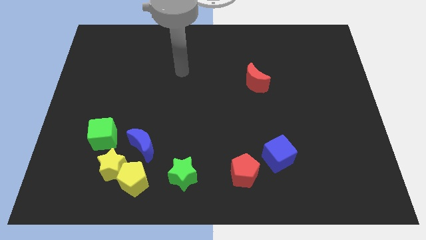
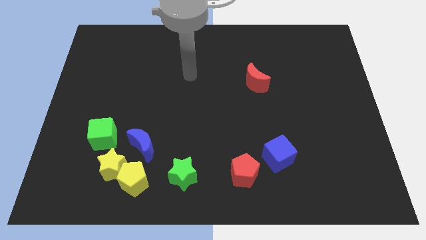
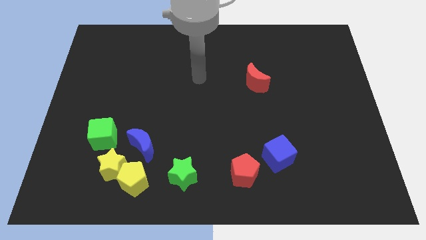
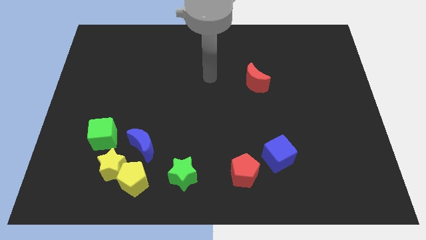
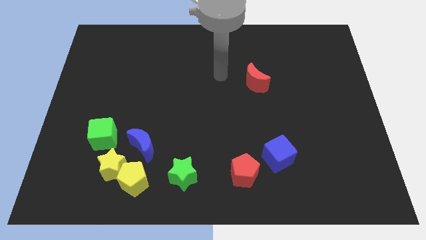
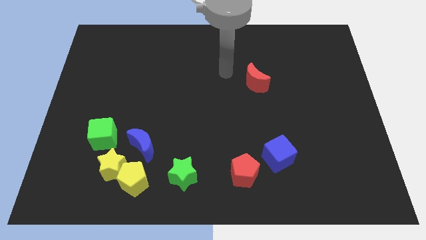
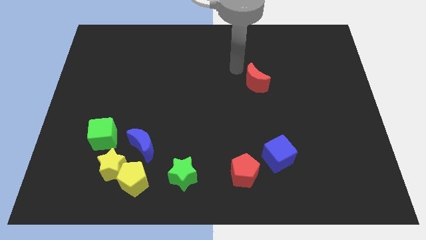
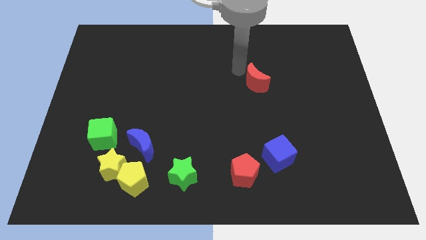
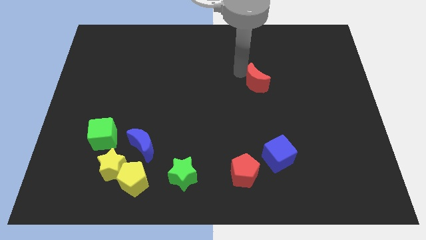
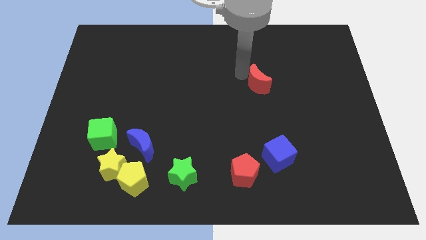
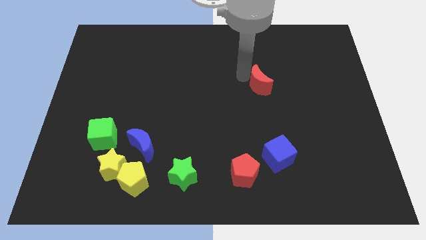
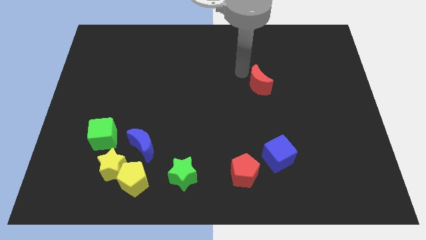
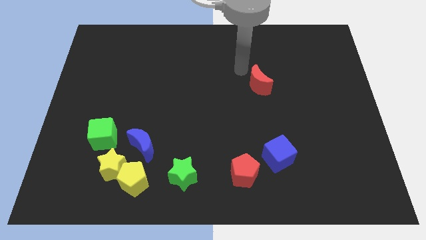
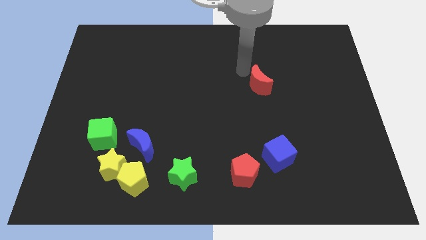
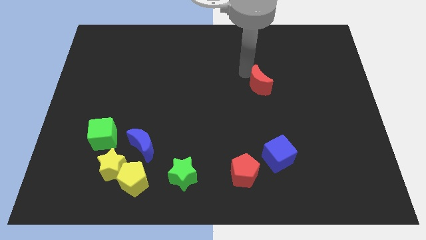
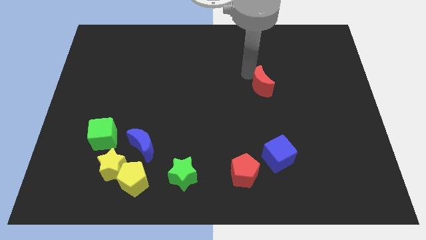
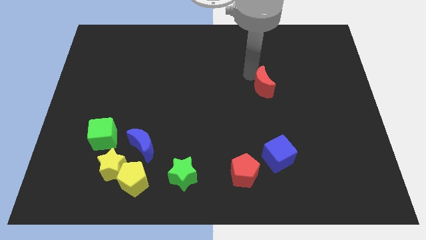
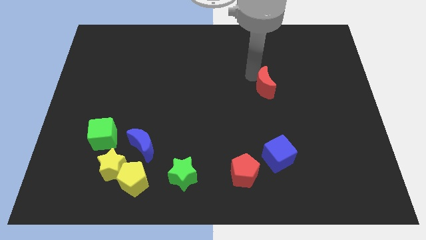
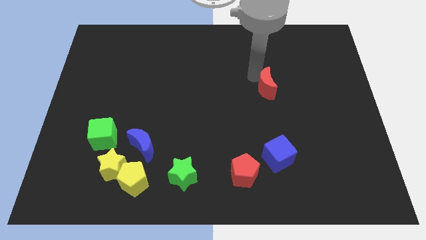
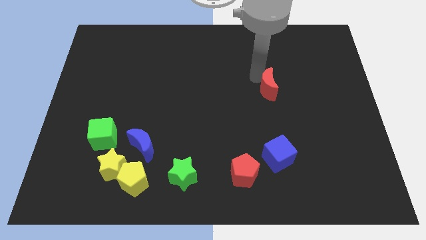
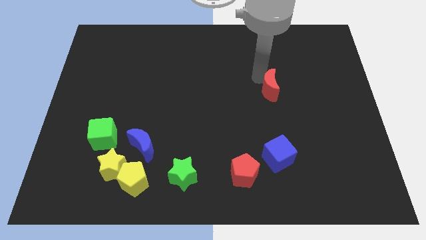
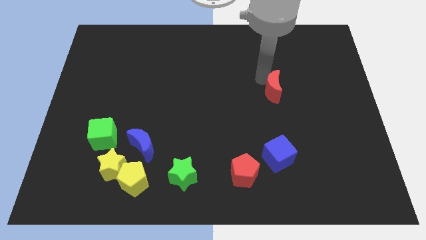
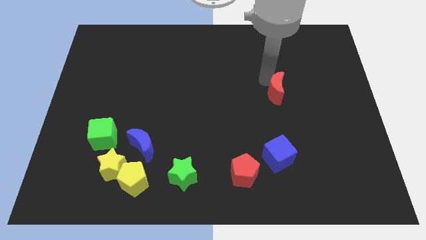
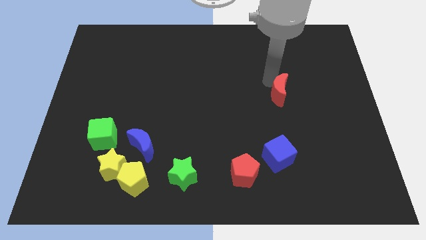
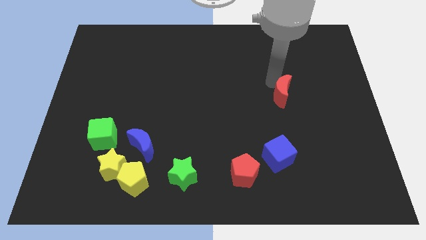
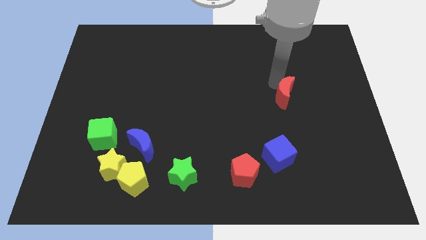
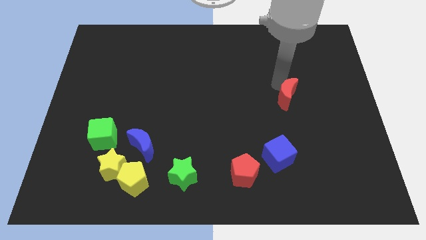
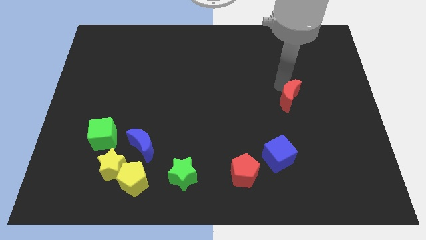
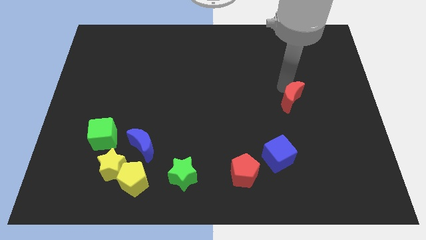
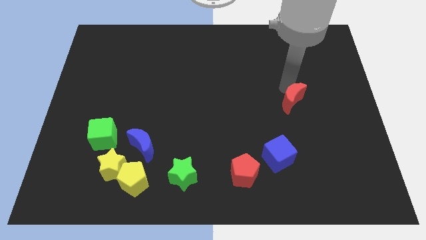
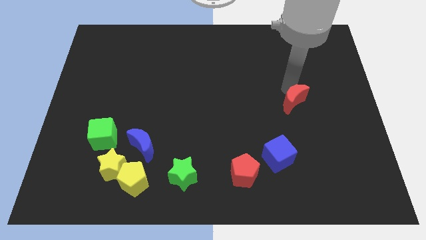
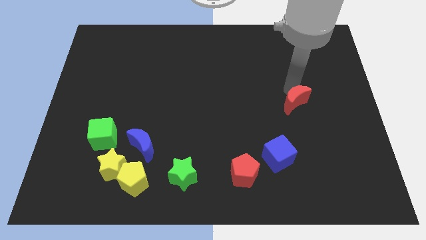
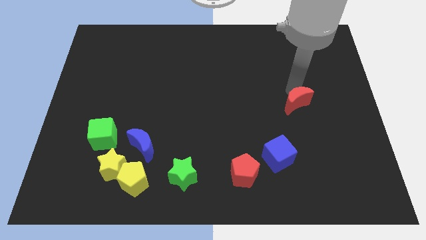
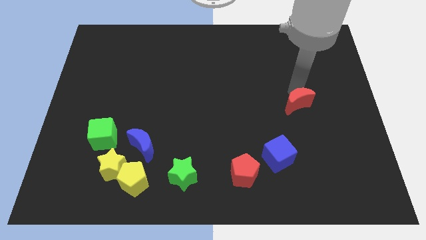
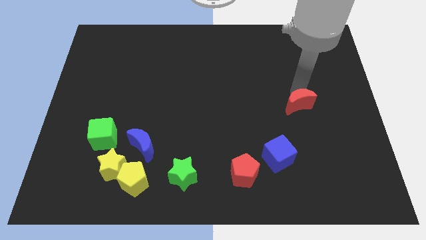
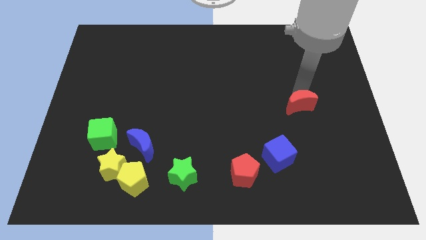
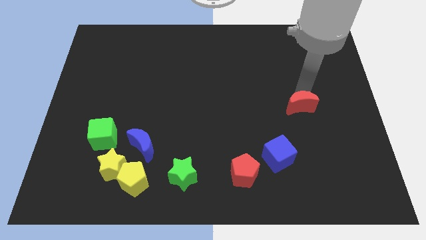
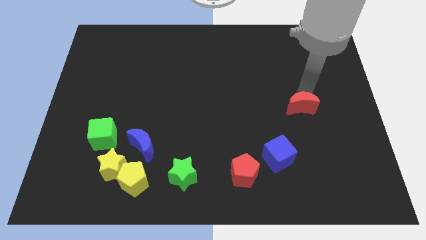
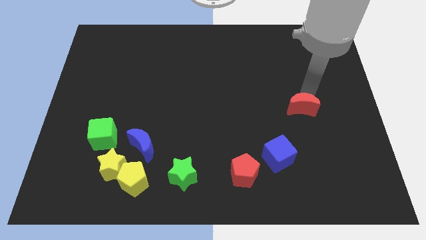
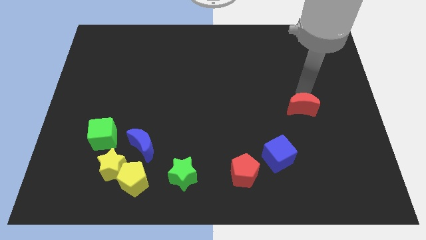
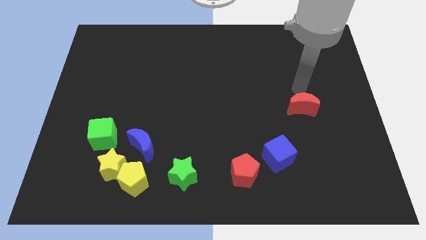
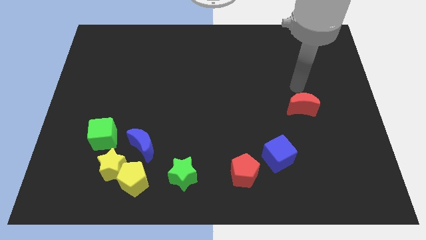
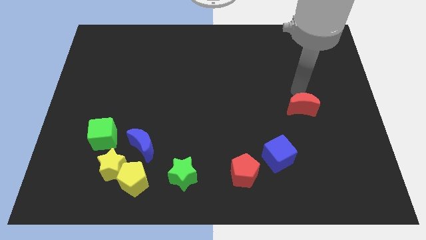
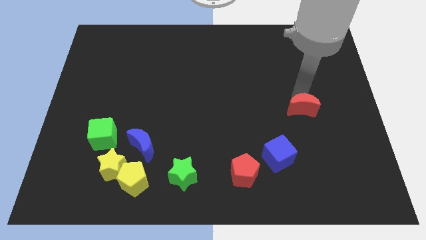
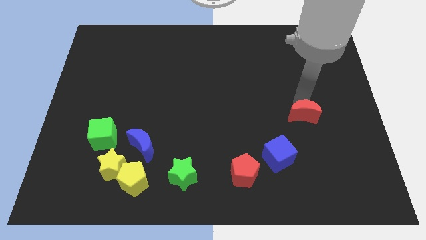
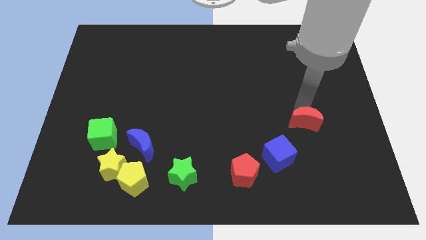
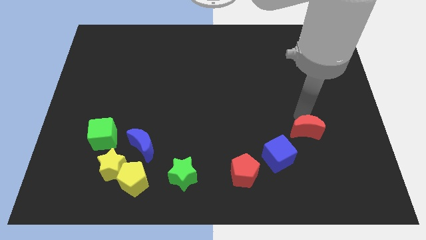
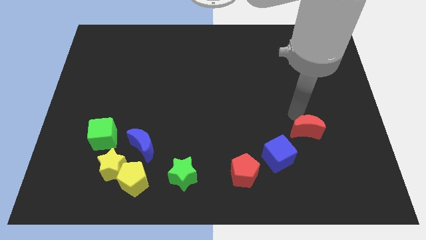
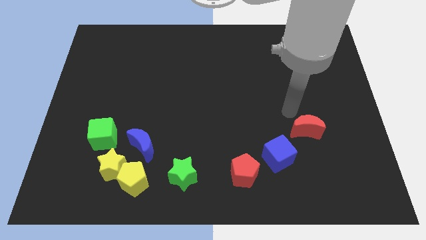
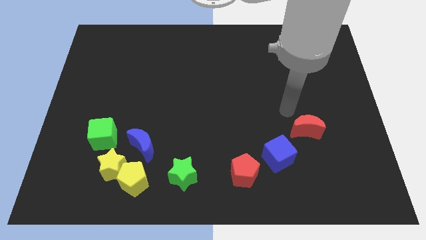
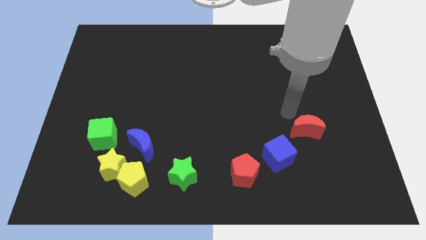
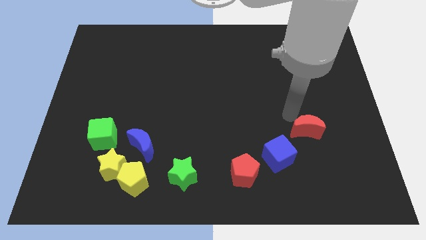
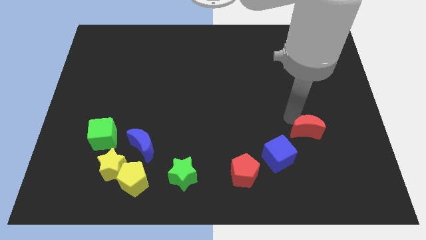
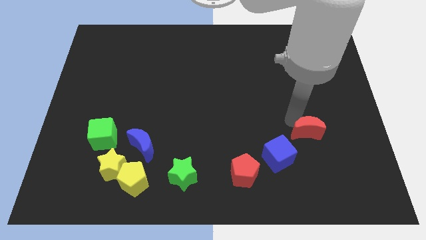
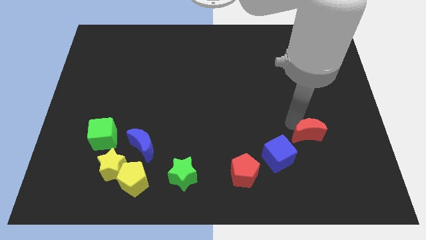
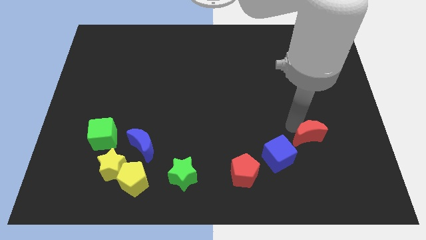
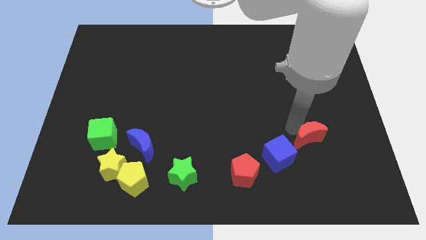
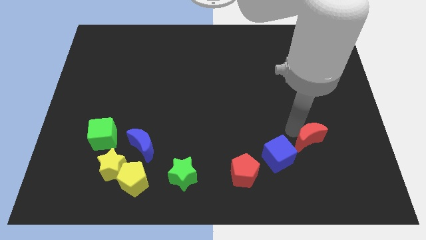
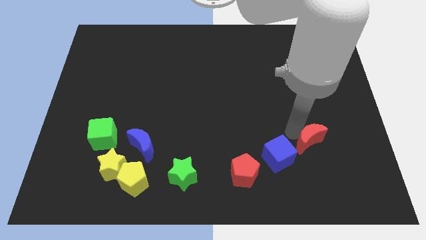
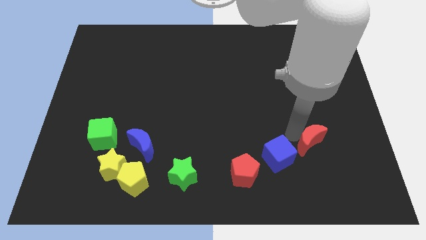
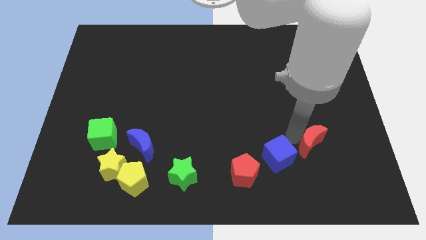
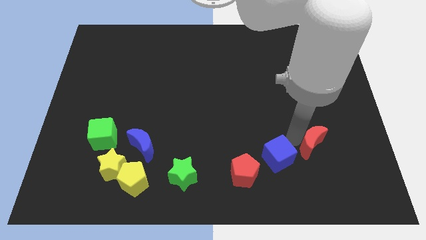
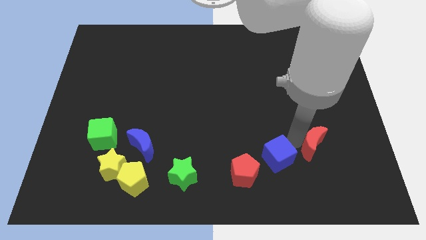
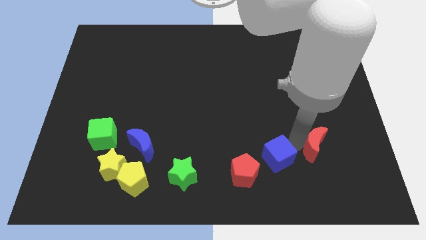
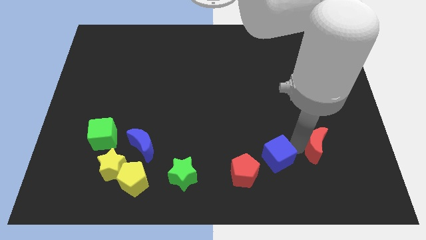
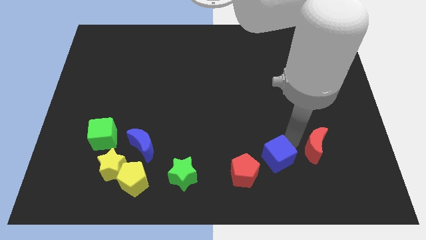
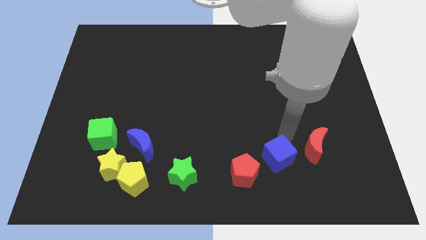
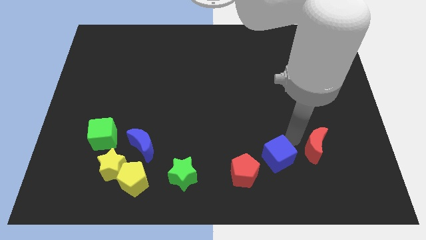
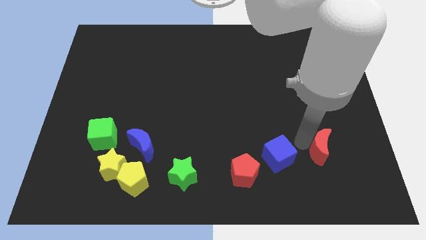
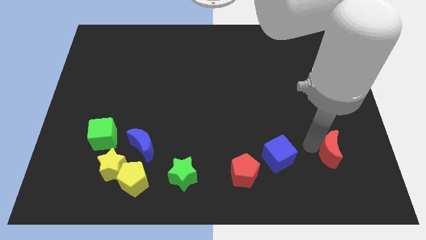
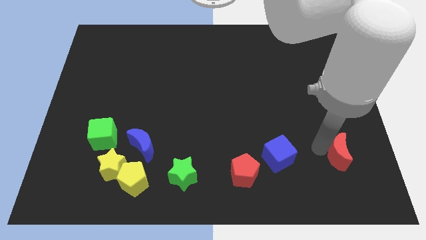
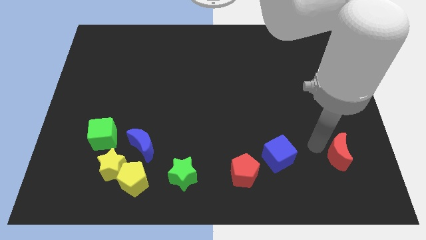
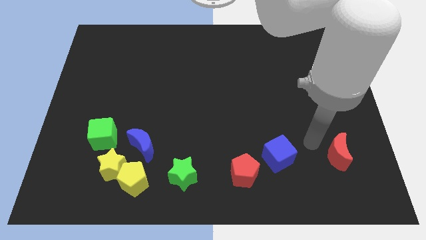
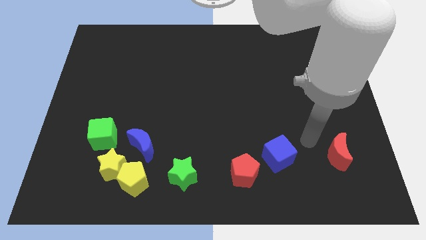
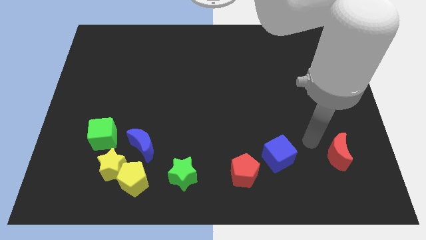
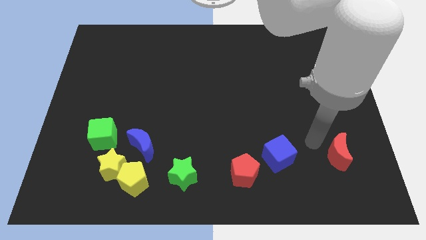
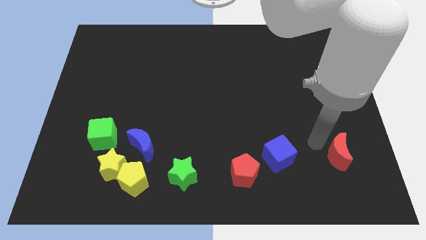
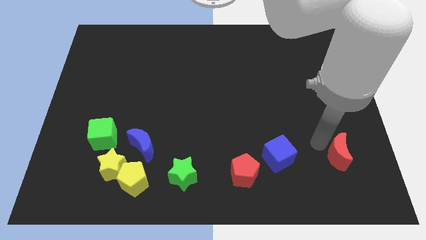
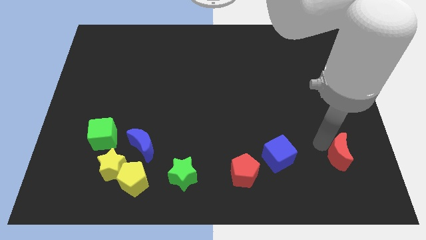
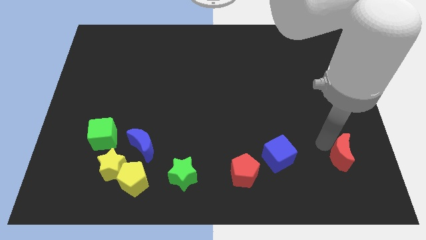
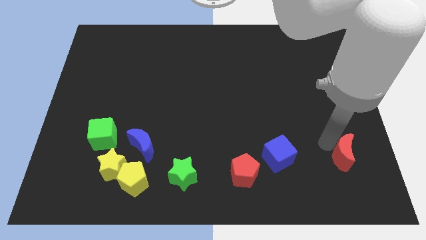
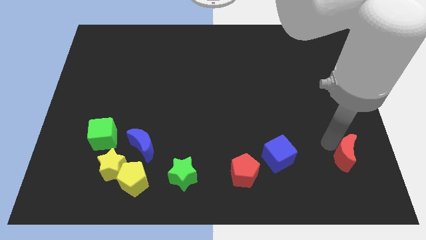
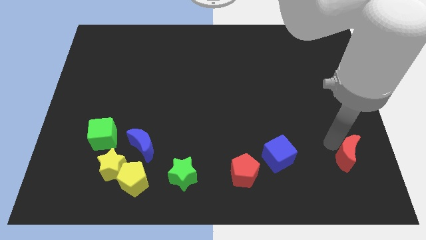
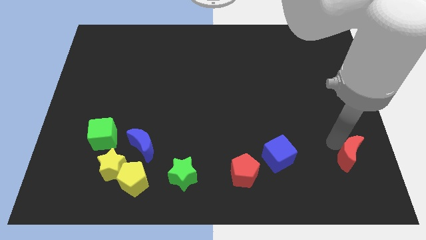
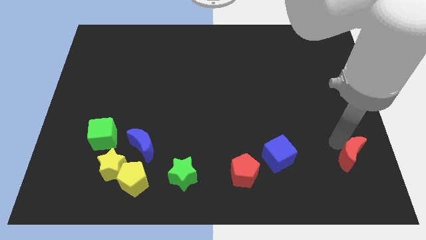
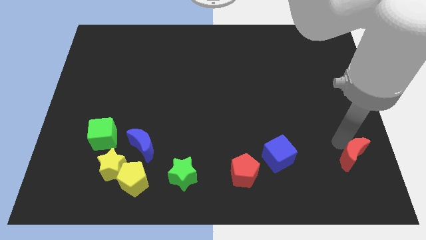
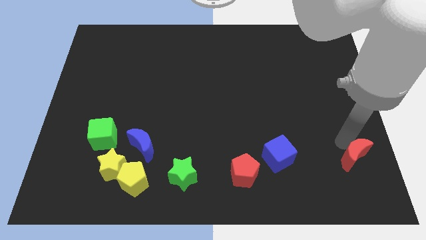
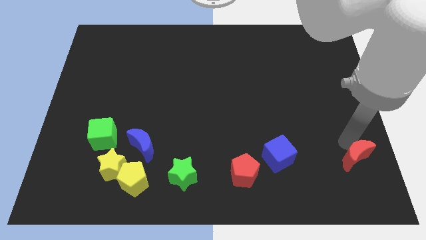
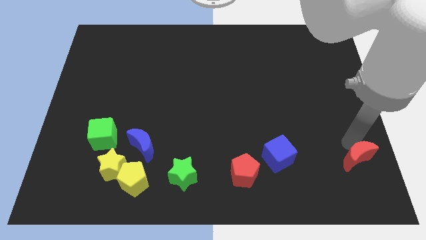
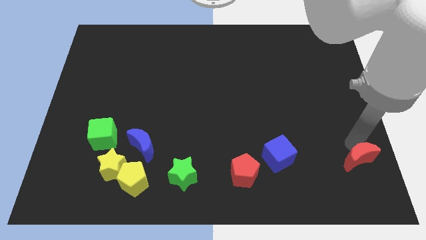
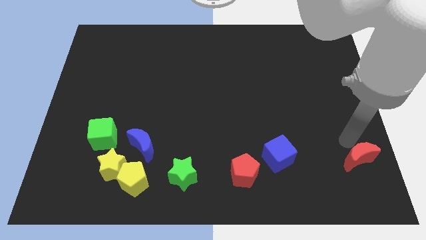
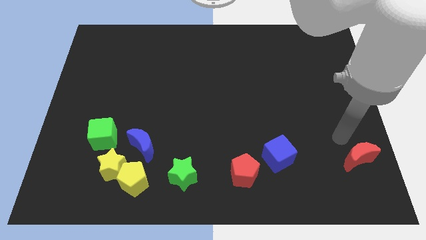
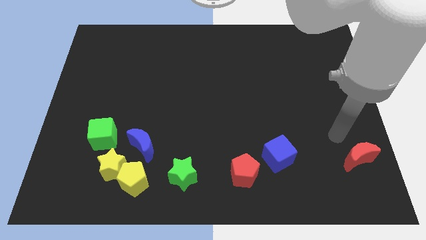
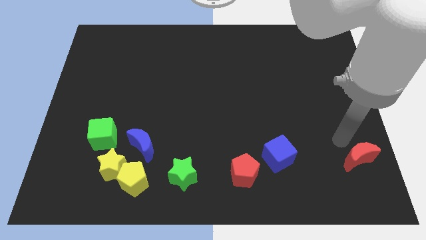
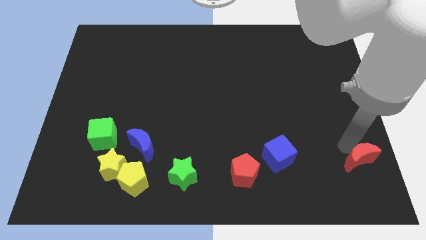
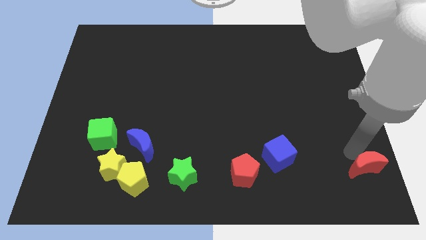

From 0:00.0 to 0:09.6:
push the red moon to the bottom right of the board
